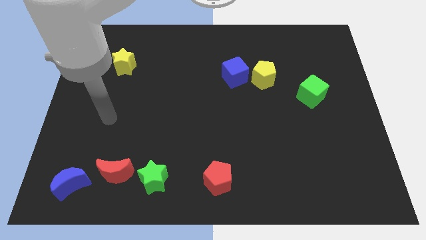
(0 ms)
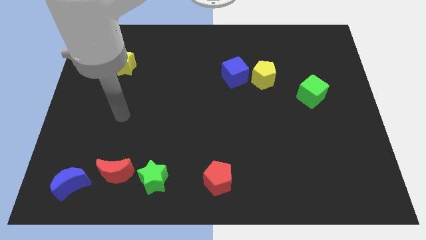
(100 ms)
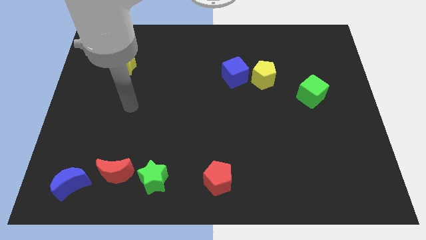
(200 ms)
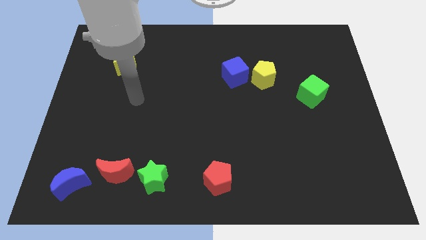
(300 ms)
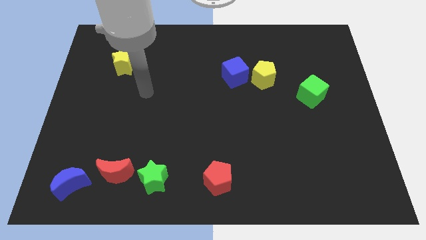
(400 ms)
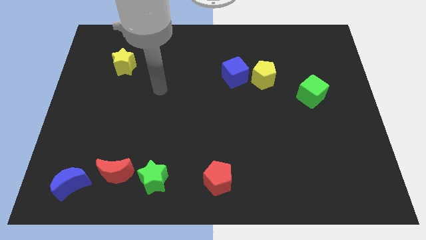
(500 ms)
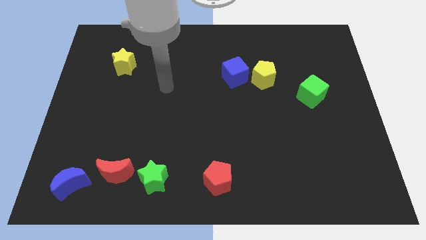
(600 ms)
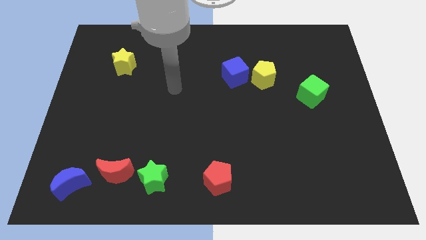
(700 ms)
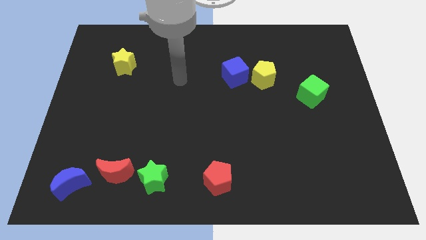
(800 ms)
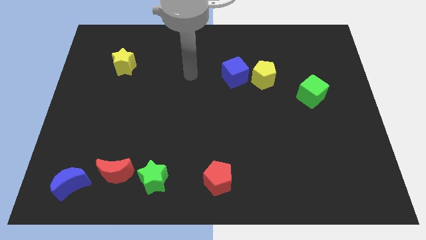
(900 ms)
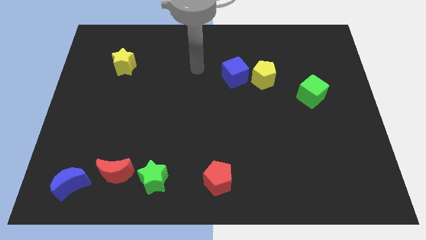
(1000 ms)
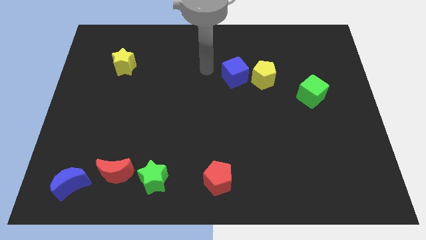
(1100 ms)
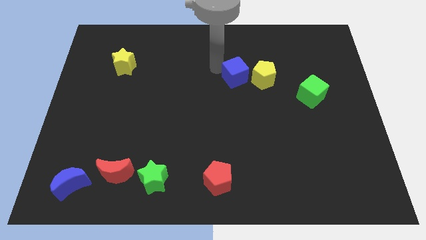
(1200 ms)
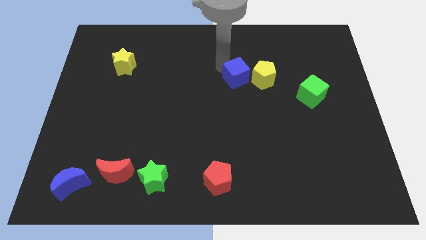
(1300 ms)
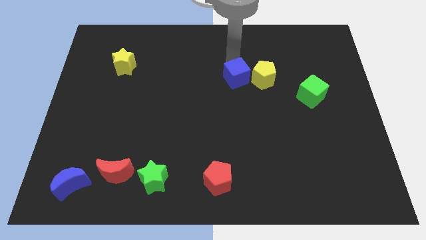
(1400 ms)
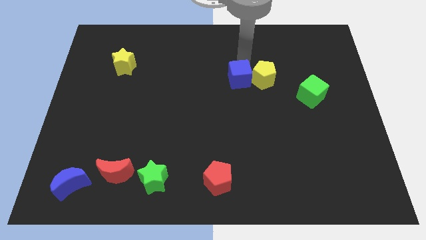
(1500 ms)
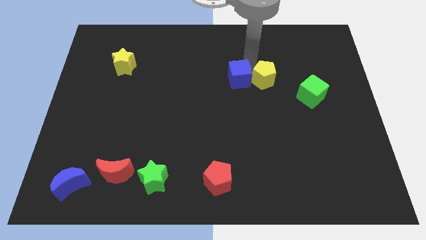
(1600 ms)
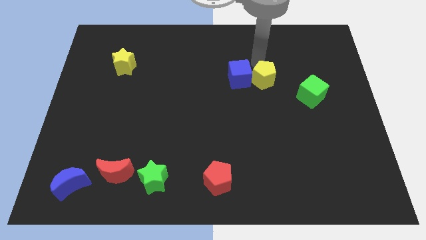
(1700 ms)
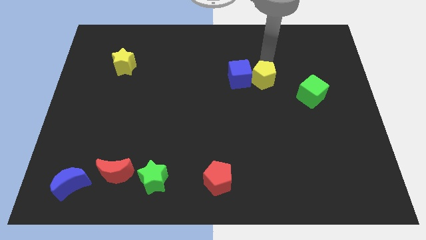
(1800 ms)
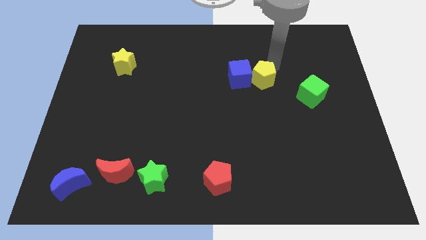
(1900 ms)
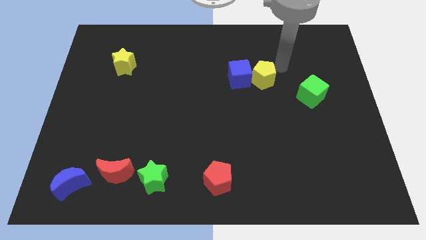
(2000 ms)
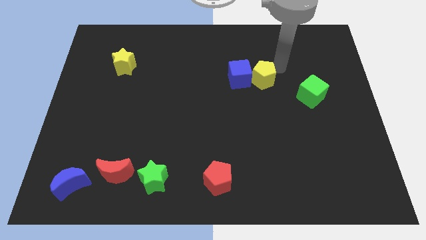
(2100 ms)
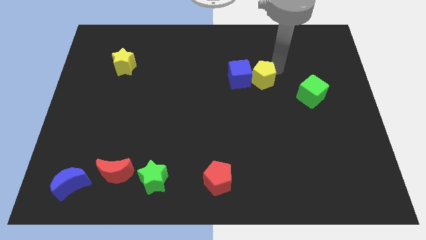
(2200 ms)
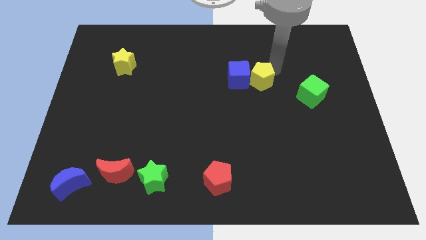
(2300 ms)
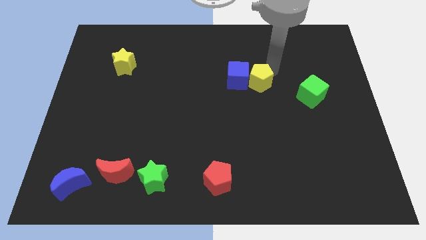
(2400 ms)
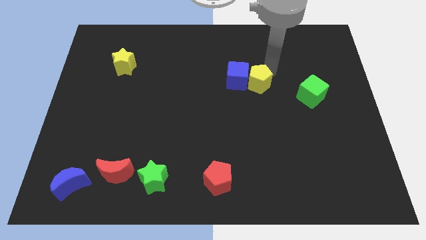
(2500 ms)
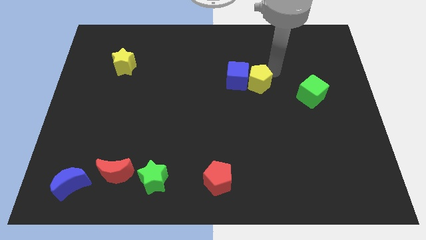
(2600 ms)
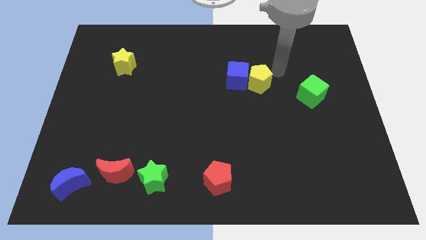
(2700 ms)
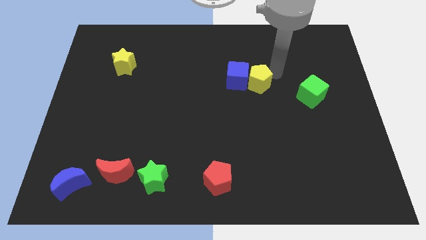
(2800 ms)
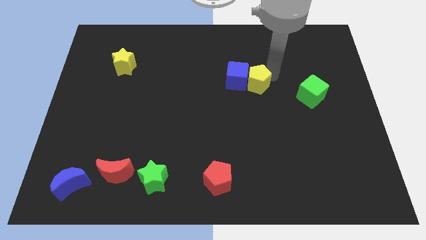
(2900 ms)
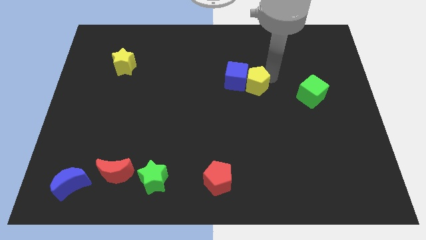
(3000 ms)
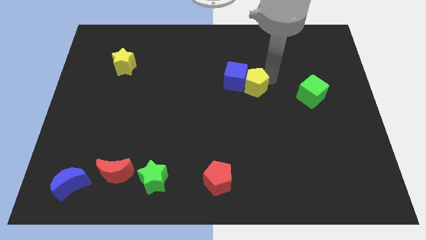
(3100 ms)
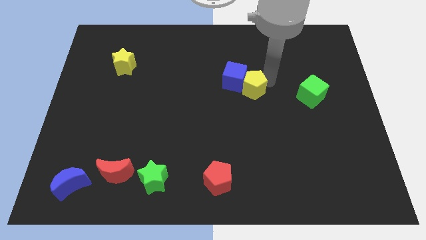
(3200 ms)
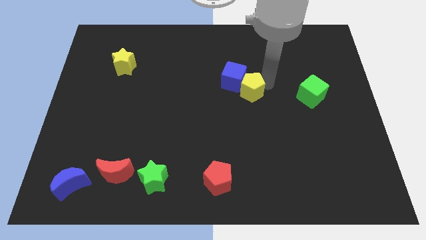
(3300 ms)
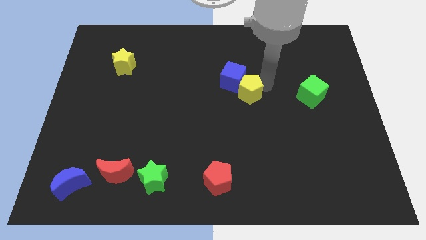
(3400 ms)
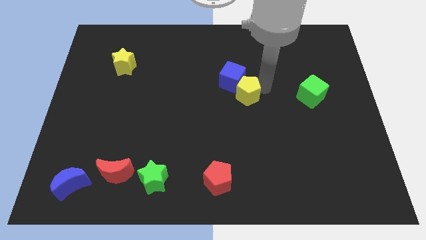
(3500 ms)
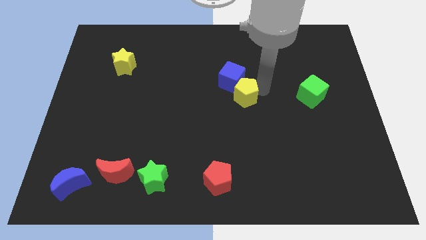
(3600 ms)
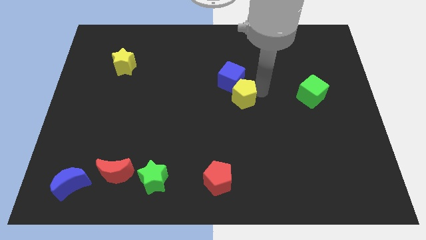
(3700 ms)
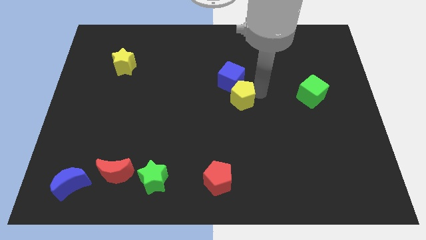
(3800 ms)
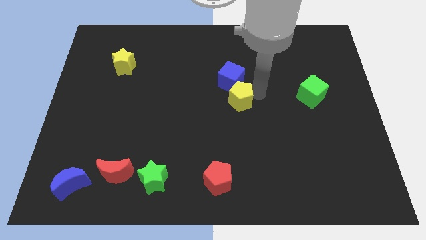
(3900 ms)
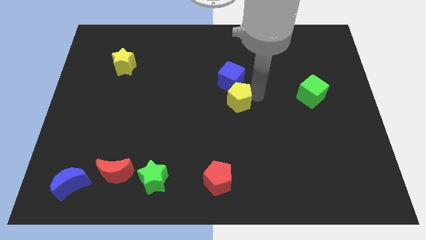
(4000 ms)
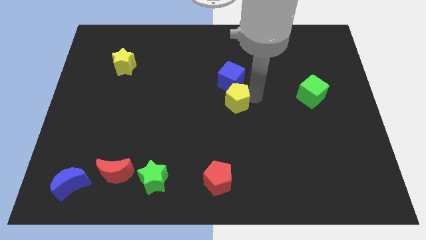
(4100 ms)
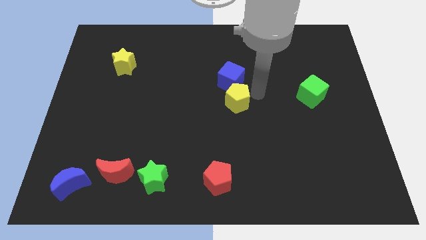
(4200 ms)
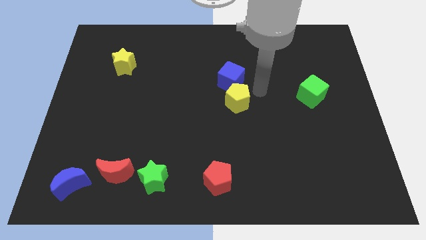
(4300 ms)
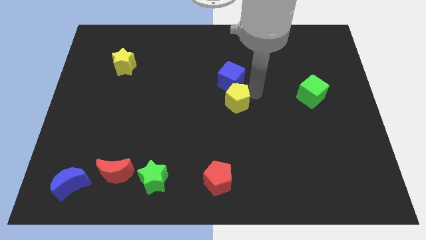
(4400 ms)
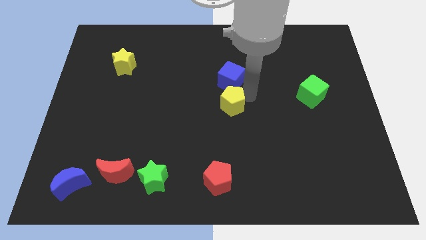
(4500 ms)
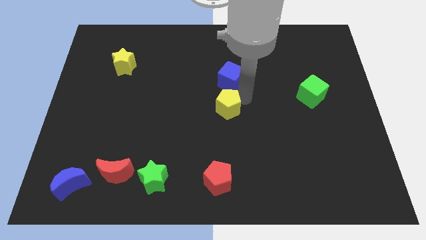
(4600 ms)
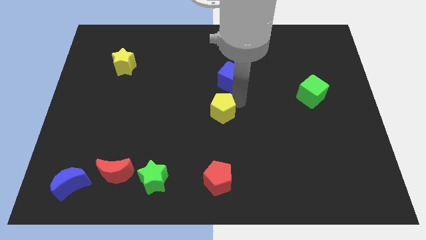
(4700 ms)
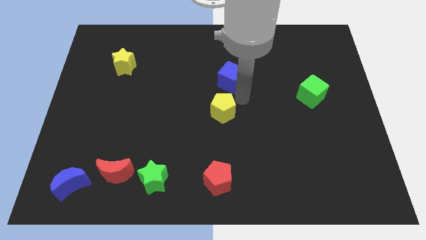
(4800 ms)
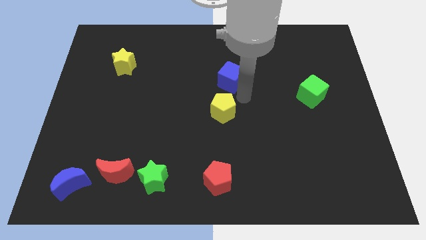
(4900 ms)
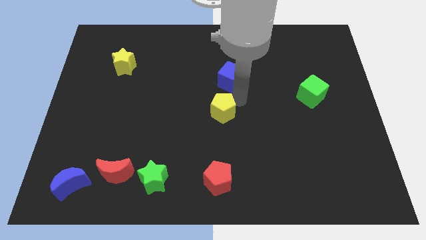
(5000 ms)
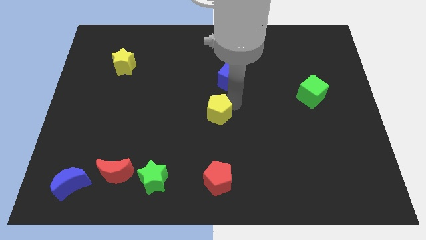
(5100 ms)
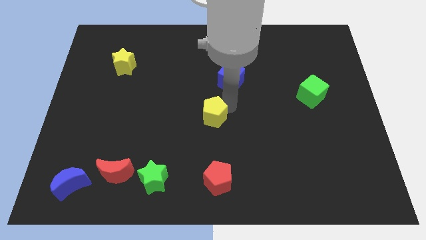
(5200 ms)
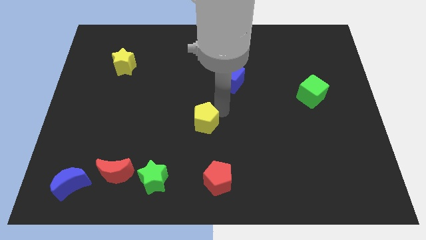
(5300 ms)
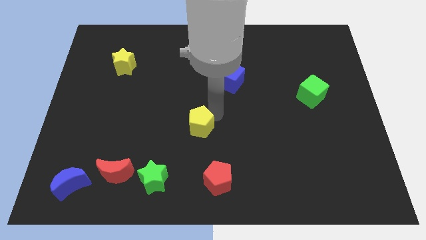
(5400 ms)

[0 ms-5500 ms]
move the yellow pentagon down and left diagonally

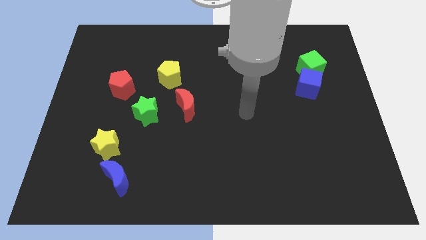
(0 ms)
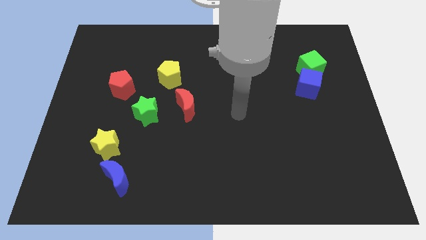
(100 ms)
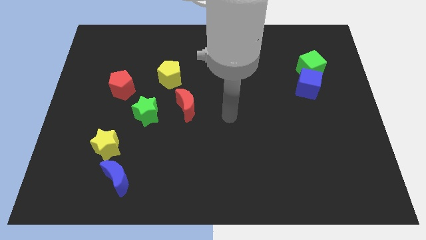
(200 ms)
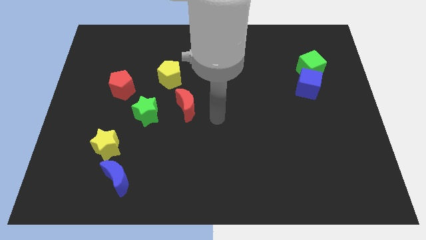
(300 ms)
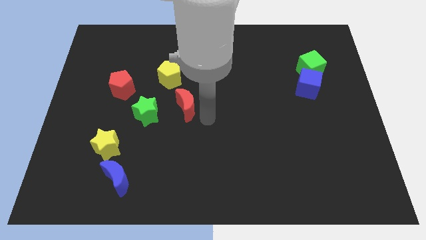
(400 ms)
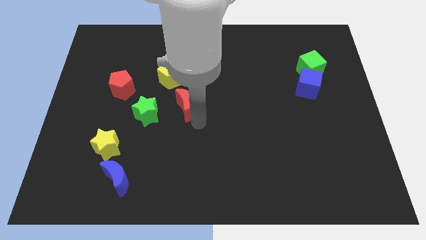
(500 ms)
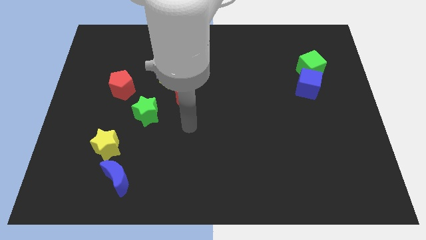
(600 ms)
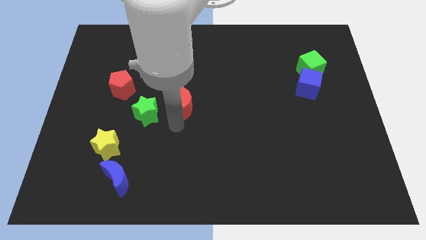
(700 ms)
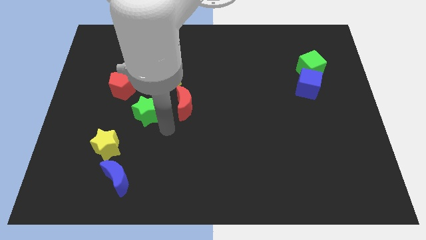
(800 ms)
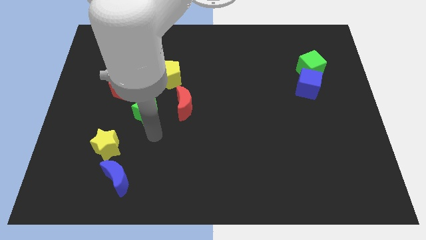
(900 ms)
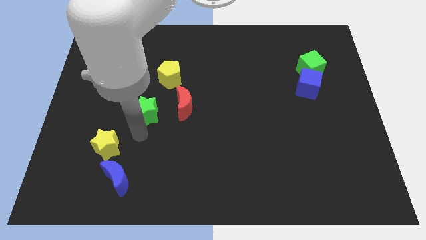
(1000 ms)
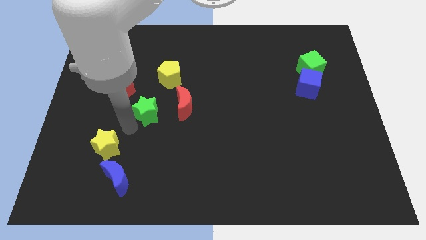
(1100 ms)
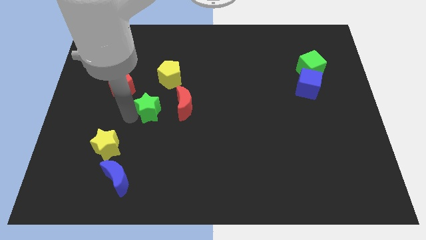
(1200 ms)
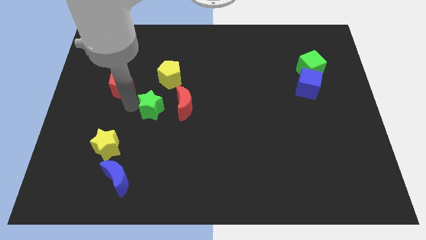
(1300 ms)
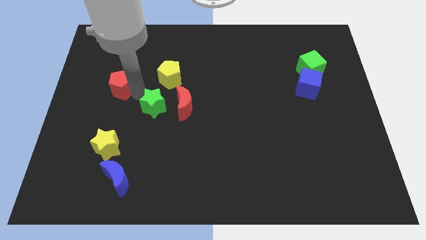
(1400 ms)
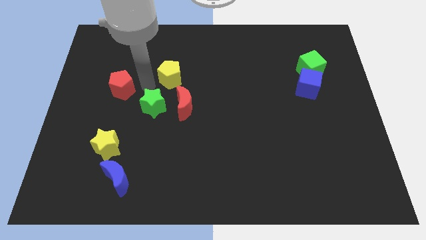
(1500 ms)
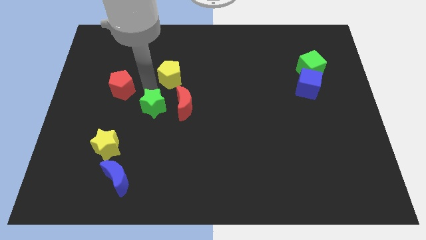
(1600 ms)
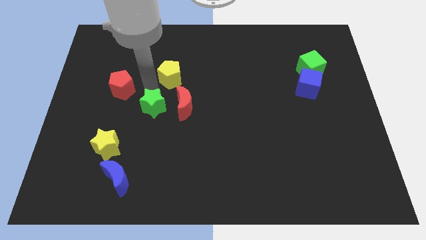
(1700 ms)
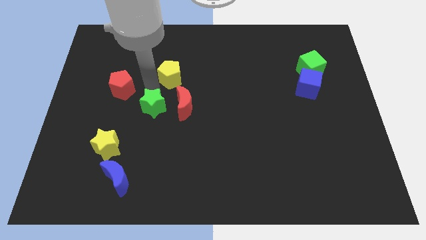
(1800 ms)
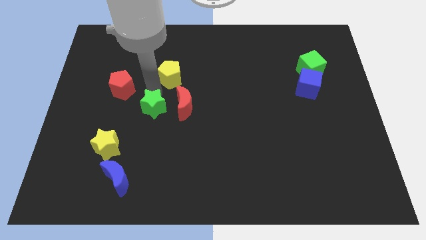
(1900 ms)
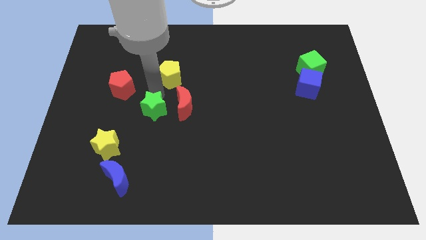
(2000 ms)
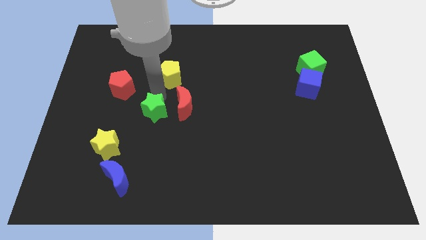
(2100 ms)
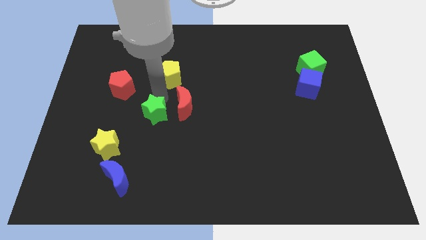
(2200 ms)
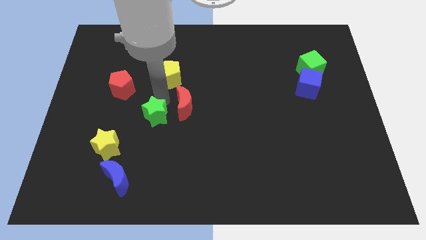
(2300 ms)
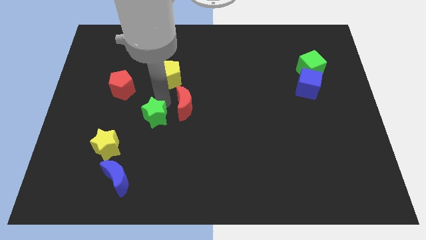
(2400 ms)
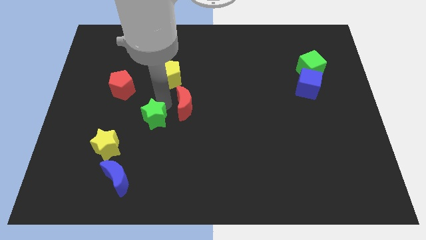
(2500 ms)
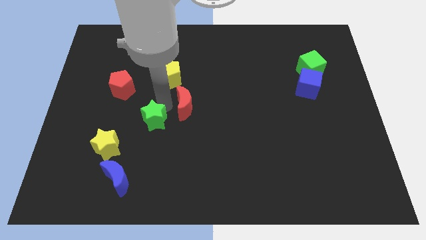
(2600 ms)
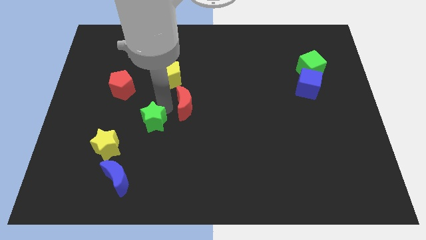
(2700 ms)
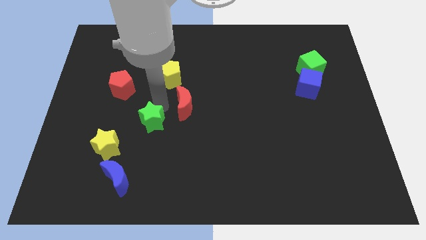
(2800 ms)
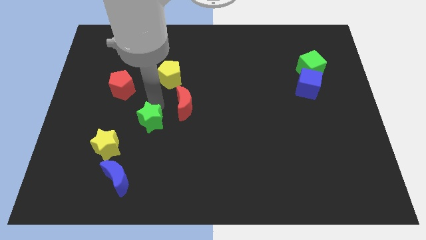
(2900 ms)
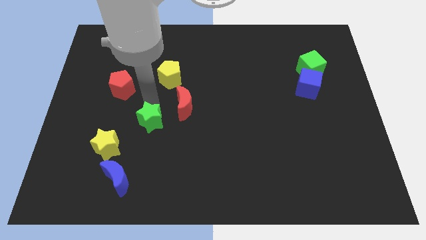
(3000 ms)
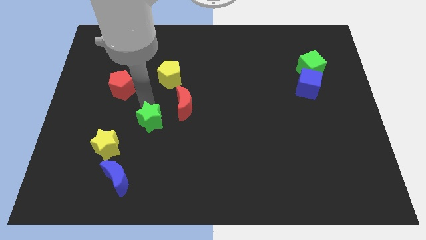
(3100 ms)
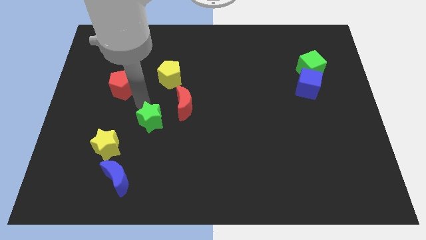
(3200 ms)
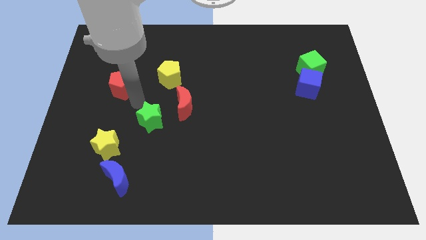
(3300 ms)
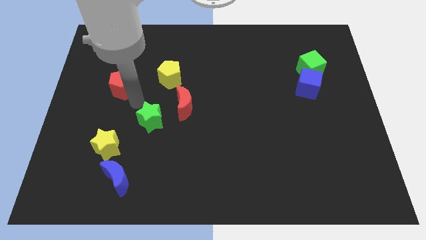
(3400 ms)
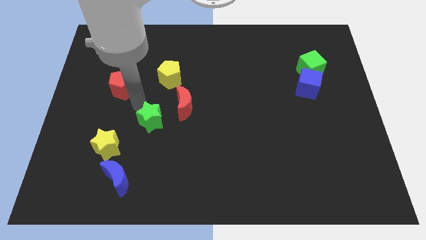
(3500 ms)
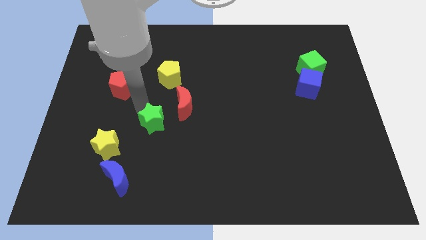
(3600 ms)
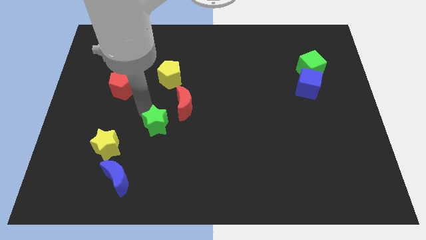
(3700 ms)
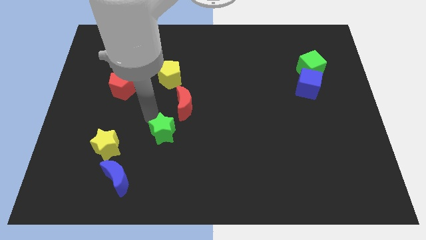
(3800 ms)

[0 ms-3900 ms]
move the green star diagonally downwards and right a little bit
